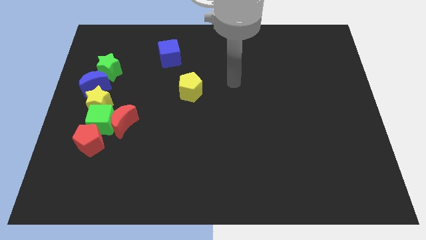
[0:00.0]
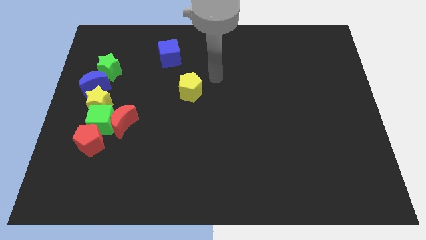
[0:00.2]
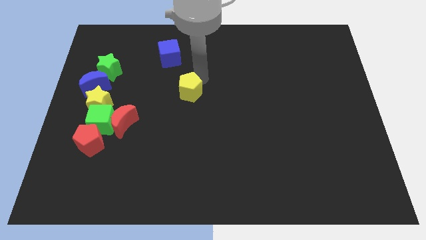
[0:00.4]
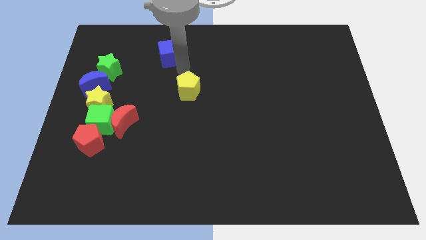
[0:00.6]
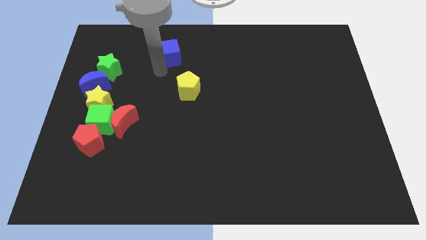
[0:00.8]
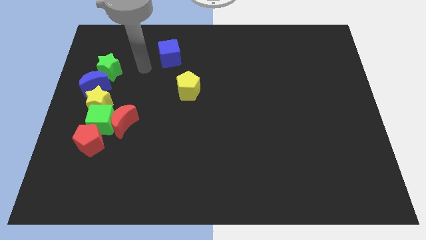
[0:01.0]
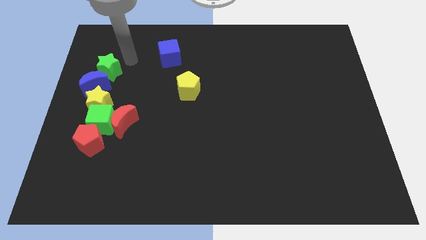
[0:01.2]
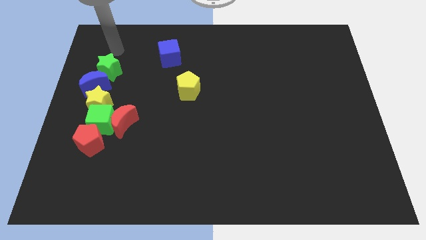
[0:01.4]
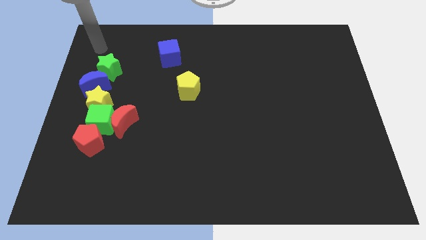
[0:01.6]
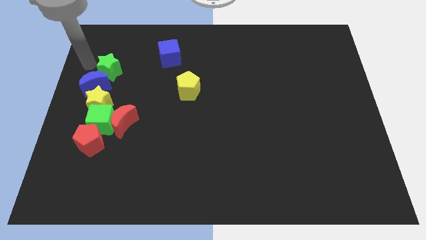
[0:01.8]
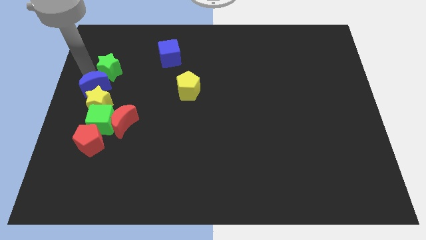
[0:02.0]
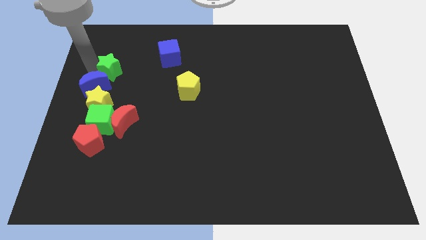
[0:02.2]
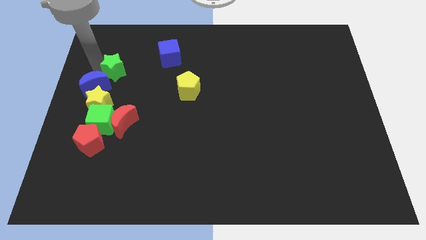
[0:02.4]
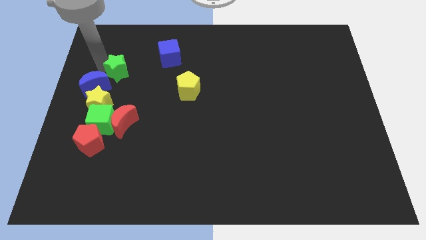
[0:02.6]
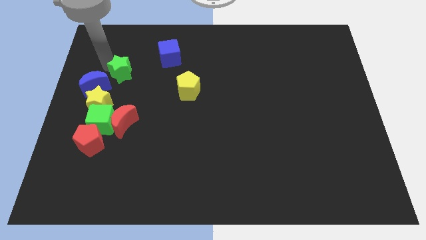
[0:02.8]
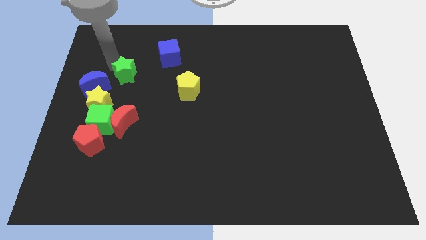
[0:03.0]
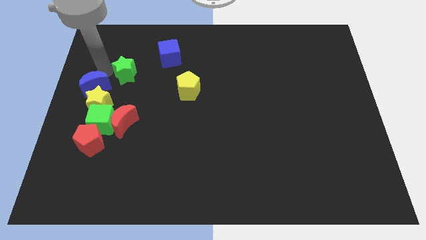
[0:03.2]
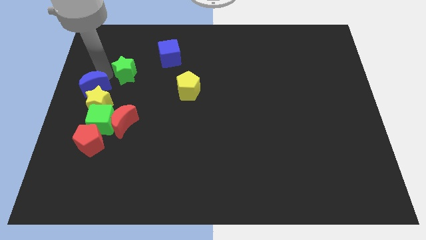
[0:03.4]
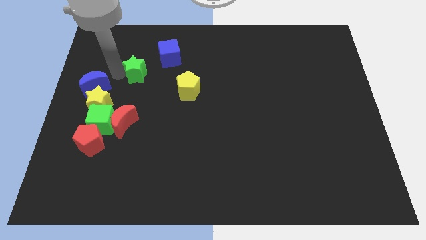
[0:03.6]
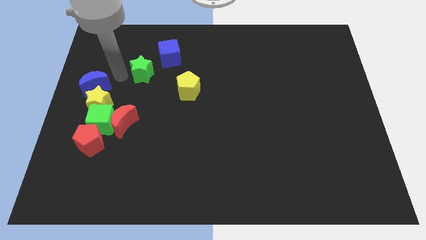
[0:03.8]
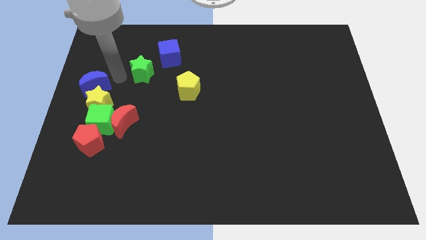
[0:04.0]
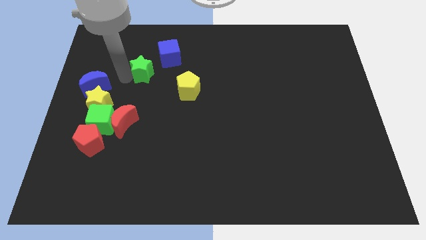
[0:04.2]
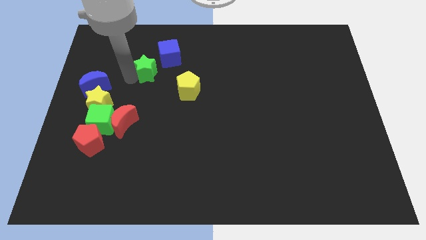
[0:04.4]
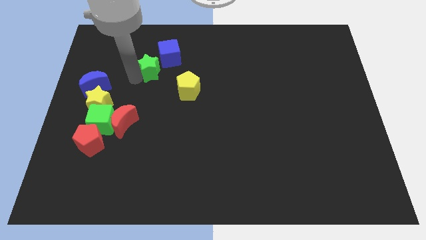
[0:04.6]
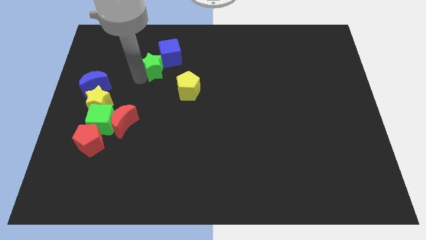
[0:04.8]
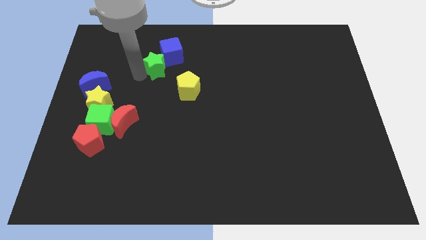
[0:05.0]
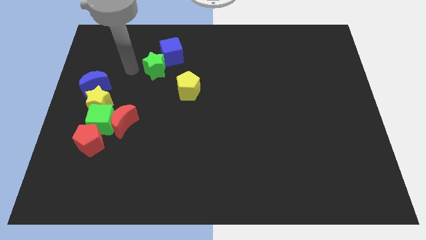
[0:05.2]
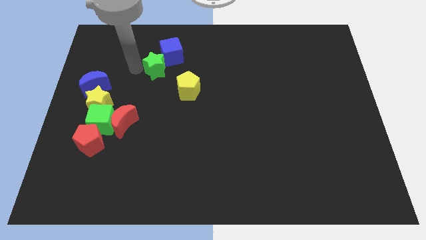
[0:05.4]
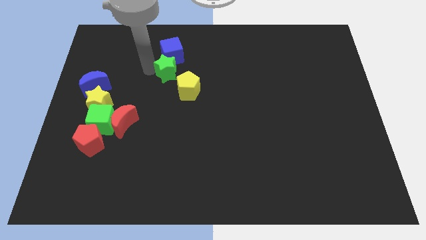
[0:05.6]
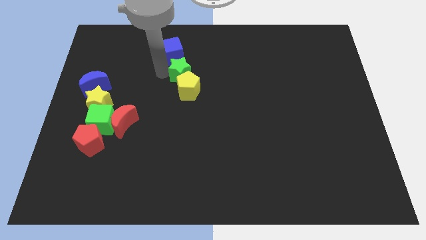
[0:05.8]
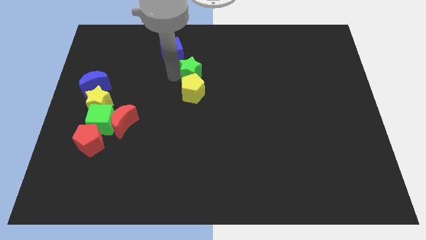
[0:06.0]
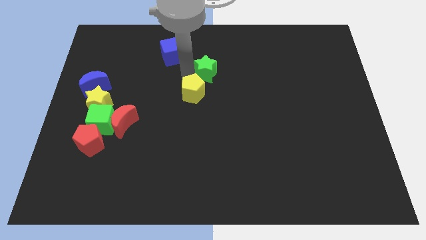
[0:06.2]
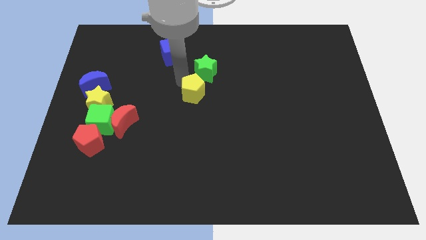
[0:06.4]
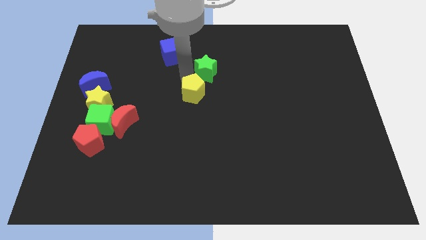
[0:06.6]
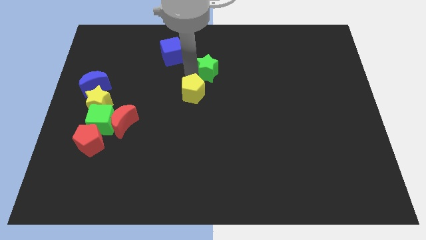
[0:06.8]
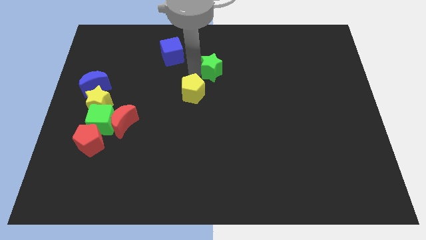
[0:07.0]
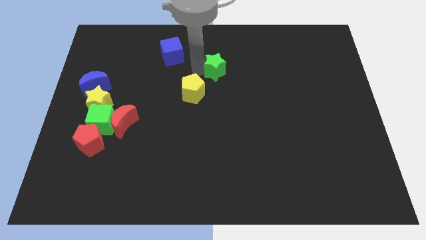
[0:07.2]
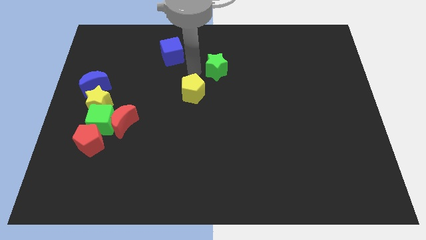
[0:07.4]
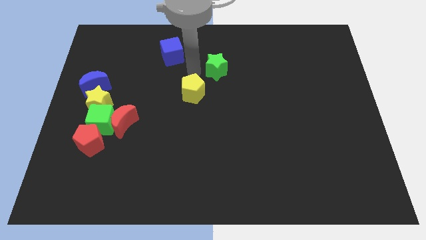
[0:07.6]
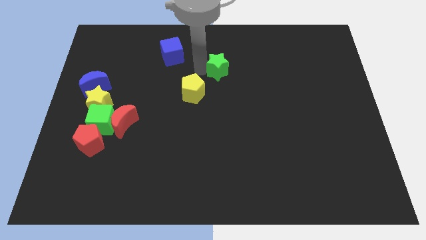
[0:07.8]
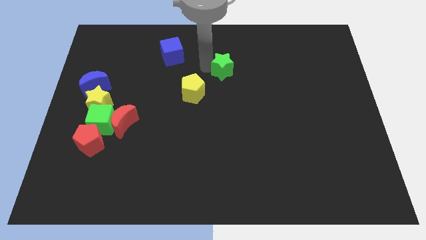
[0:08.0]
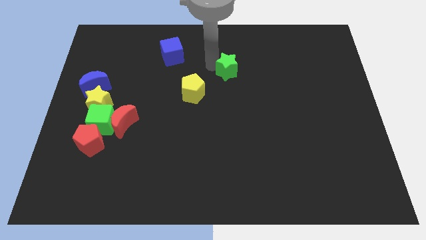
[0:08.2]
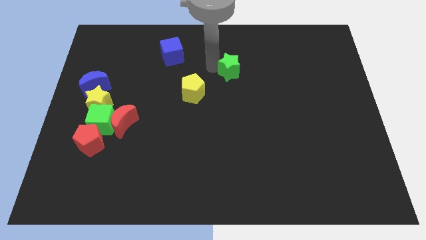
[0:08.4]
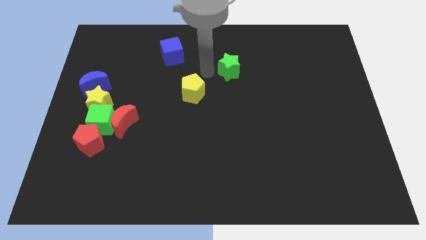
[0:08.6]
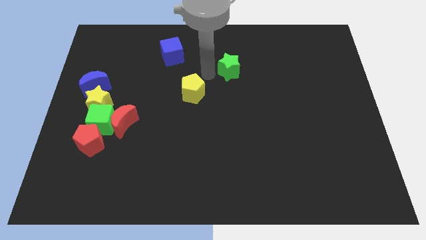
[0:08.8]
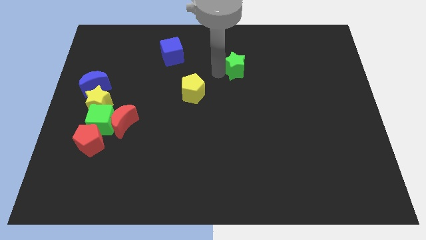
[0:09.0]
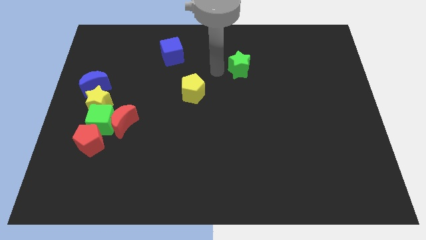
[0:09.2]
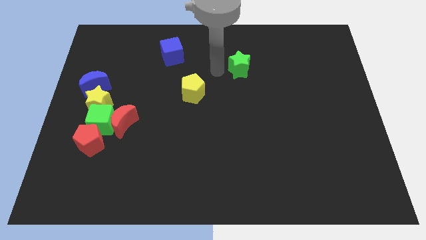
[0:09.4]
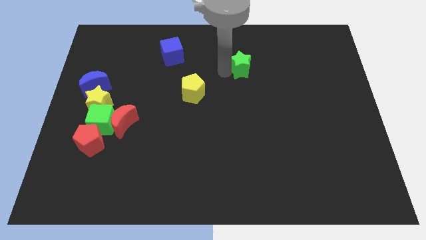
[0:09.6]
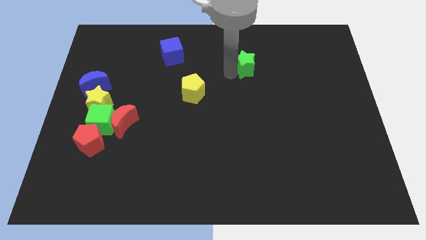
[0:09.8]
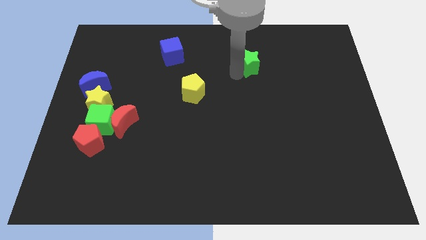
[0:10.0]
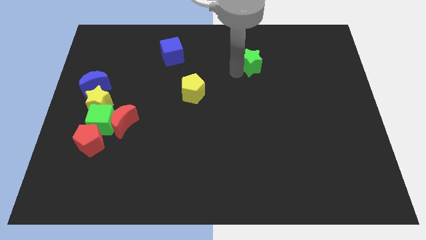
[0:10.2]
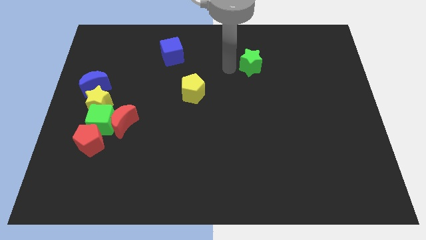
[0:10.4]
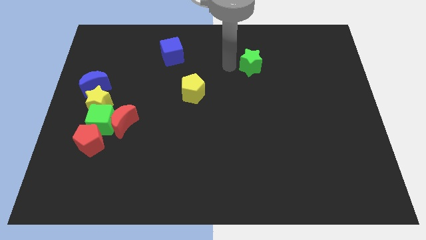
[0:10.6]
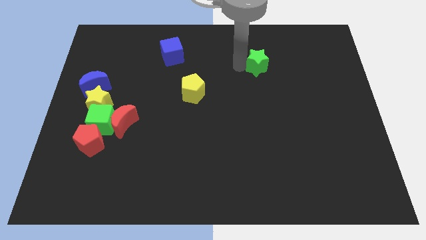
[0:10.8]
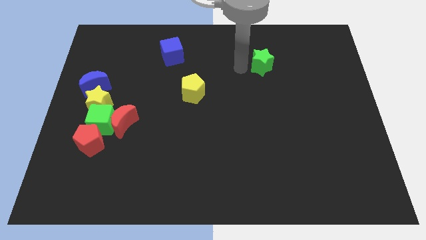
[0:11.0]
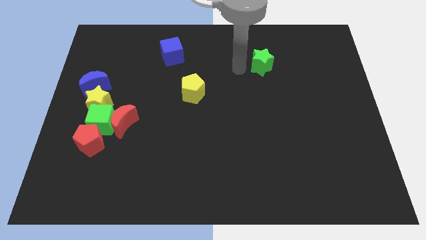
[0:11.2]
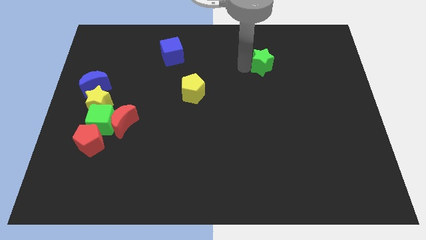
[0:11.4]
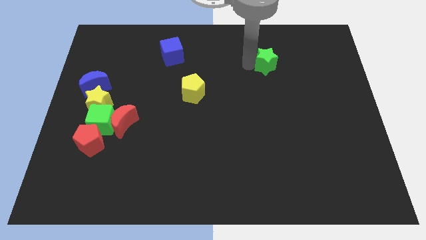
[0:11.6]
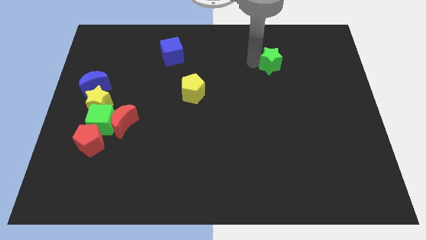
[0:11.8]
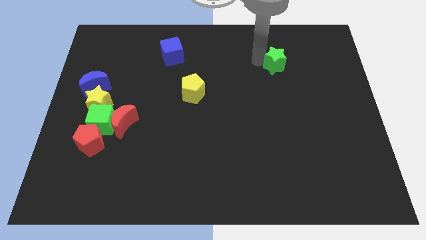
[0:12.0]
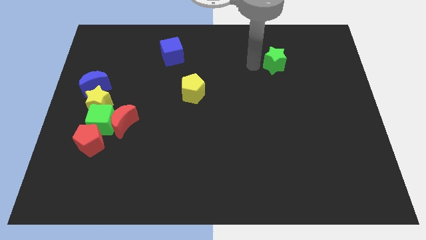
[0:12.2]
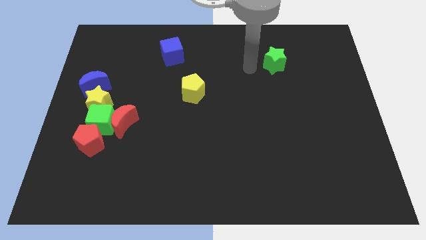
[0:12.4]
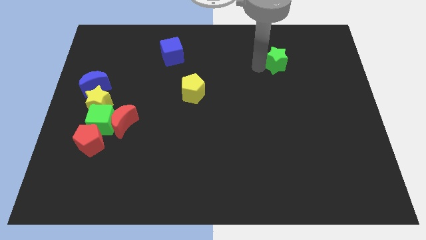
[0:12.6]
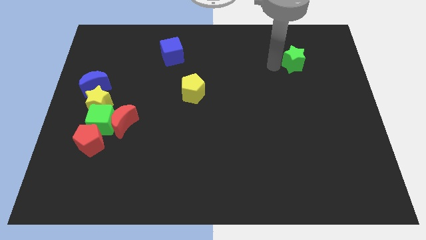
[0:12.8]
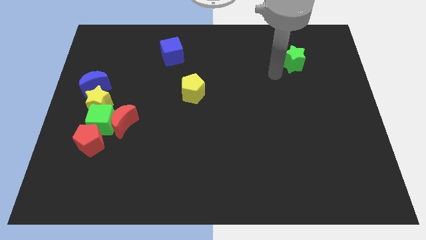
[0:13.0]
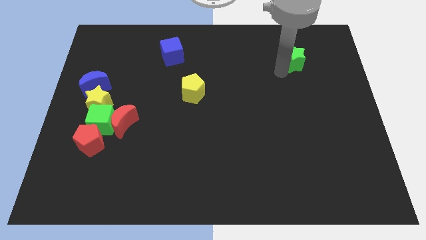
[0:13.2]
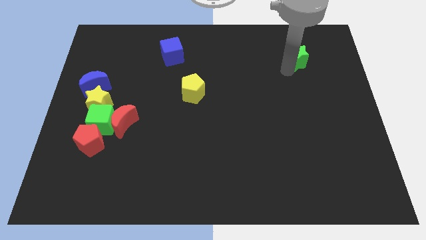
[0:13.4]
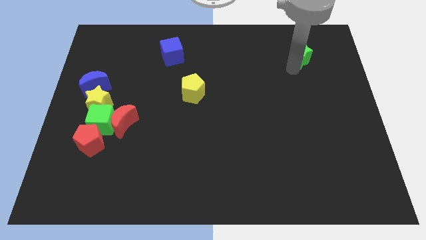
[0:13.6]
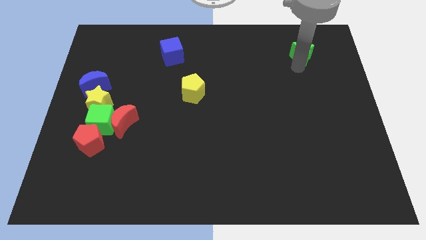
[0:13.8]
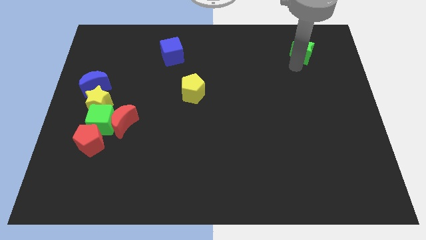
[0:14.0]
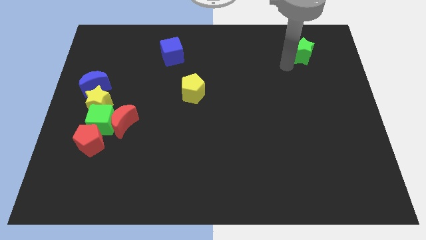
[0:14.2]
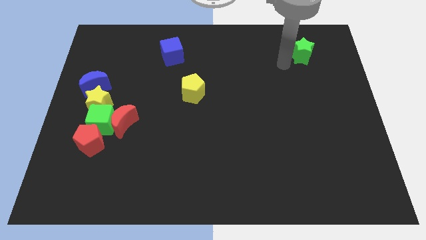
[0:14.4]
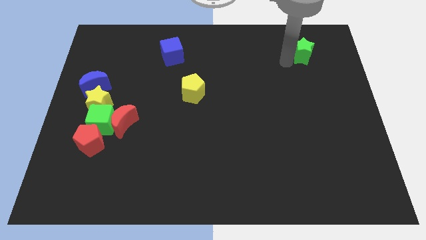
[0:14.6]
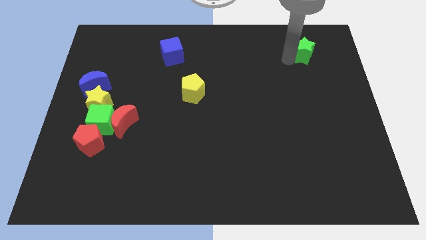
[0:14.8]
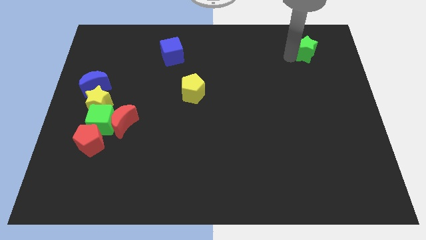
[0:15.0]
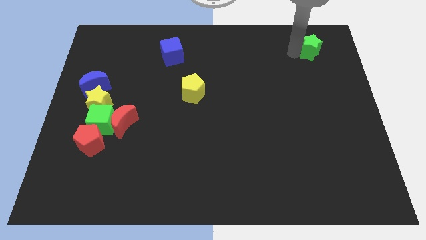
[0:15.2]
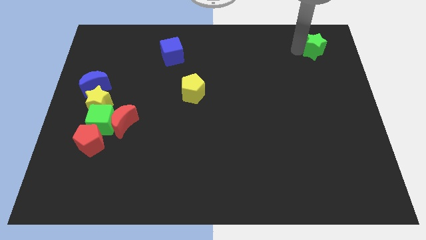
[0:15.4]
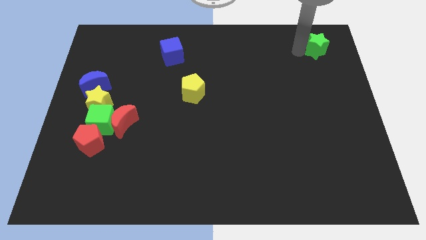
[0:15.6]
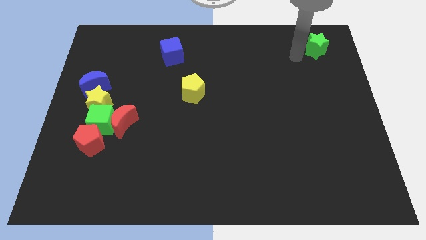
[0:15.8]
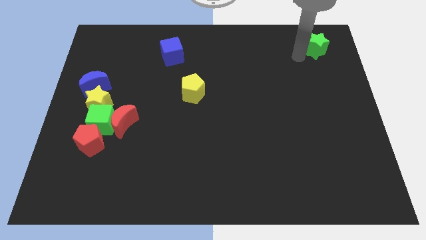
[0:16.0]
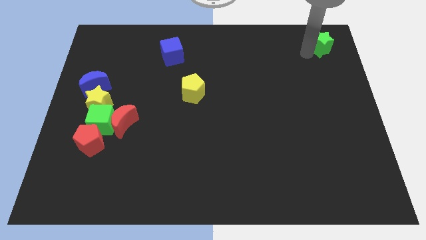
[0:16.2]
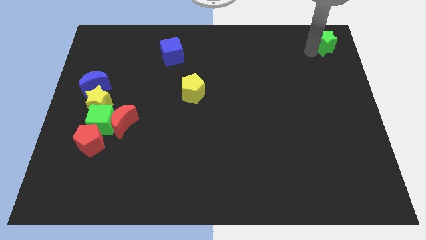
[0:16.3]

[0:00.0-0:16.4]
put the green star to the upper right corner
